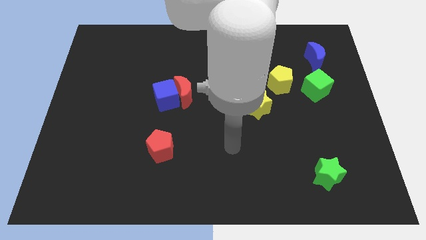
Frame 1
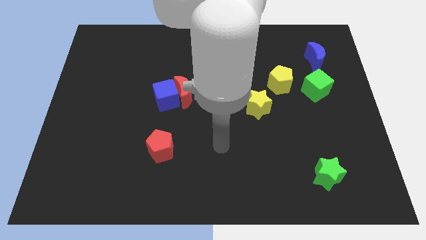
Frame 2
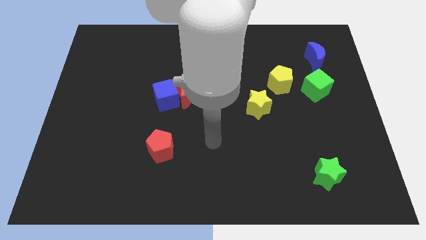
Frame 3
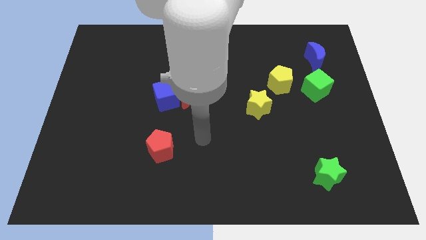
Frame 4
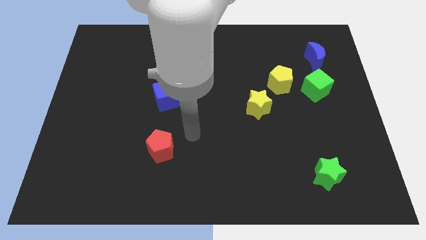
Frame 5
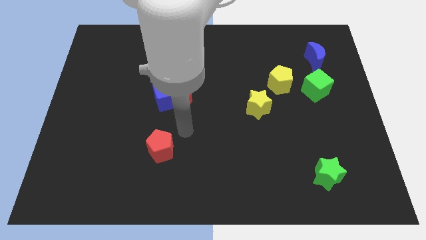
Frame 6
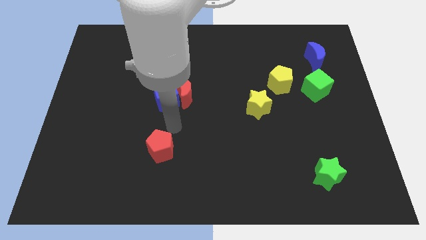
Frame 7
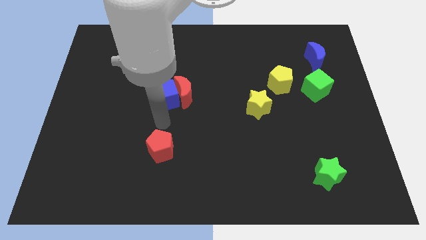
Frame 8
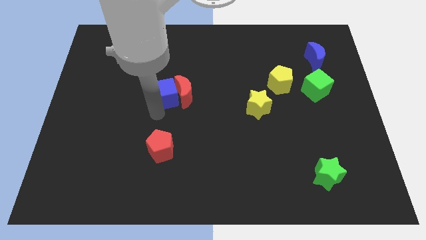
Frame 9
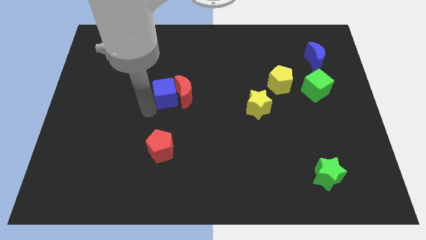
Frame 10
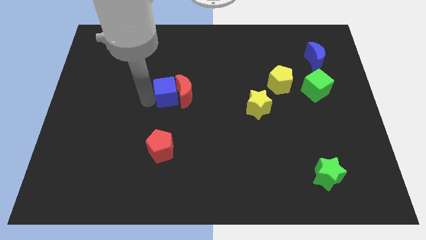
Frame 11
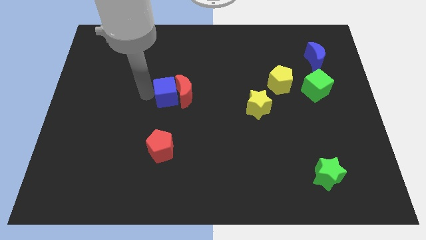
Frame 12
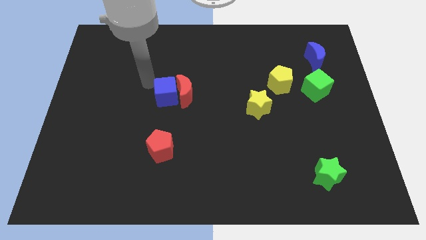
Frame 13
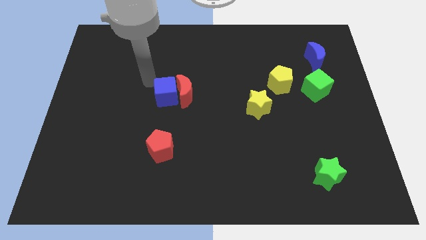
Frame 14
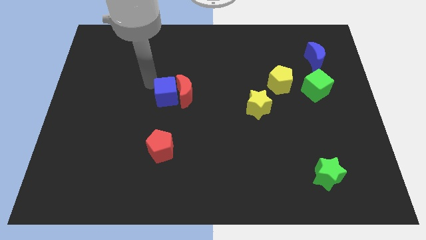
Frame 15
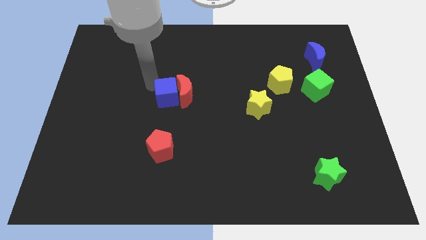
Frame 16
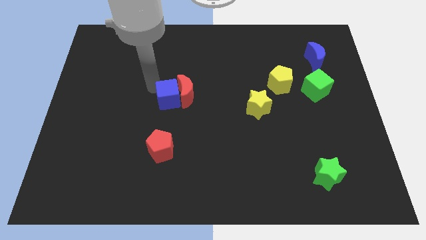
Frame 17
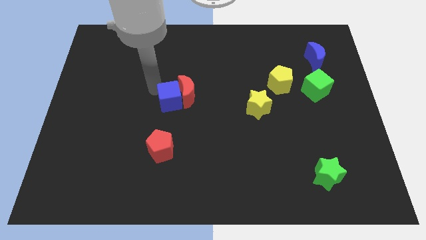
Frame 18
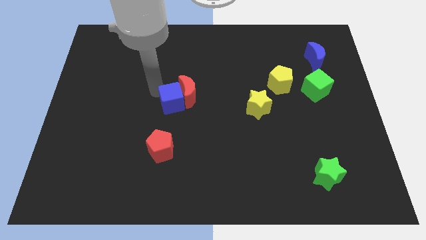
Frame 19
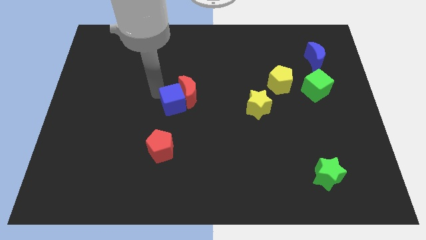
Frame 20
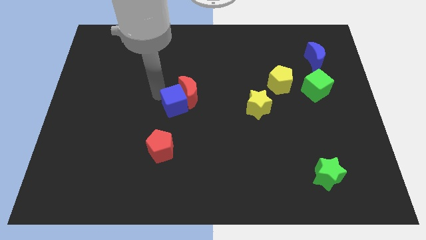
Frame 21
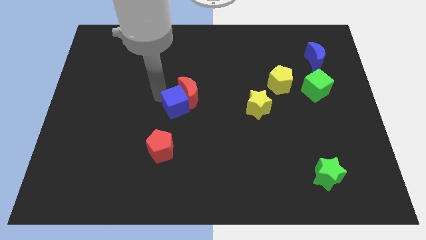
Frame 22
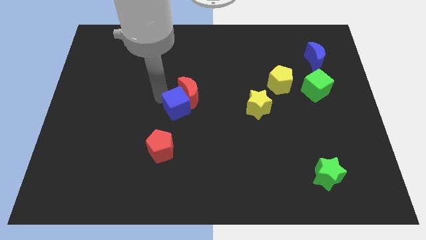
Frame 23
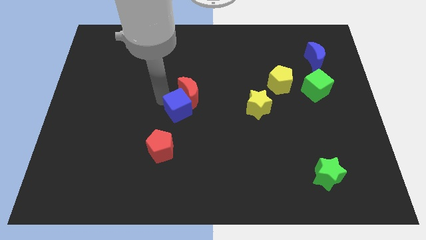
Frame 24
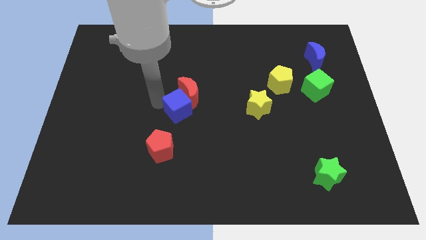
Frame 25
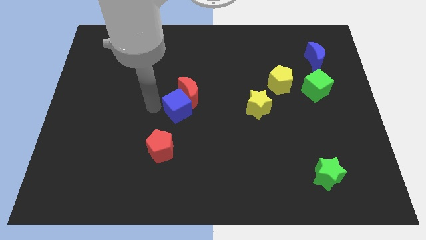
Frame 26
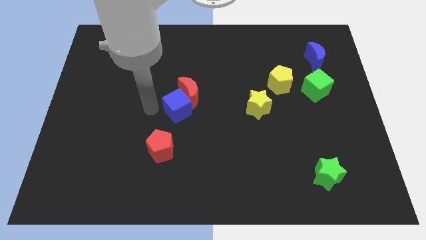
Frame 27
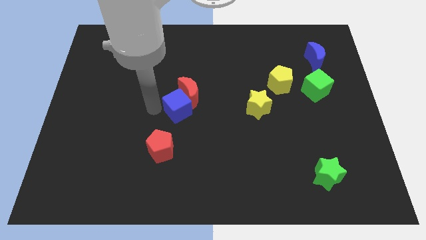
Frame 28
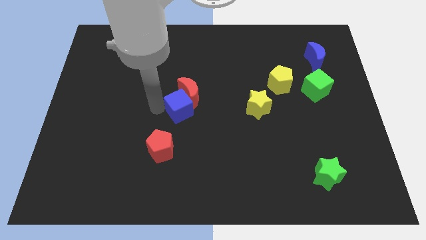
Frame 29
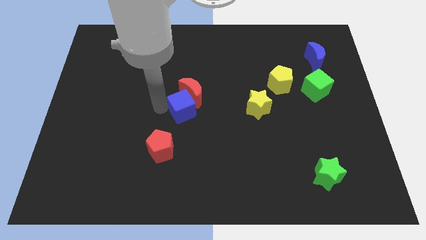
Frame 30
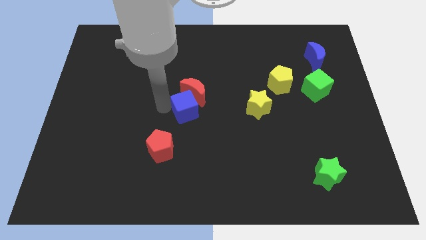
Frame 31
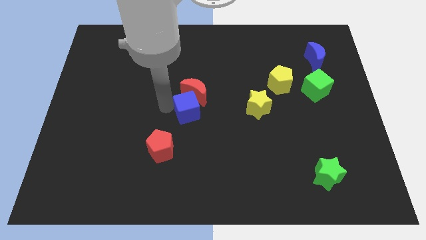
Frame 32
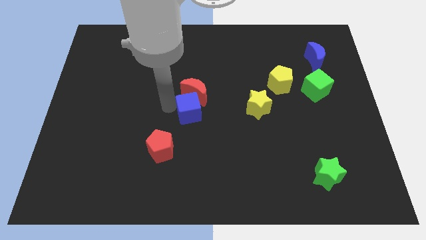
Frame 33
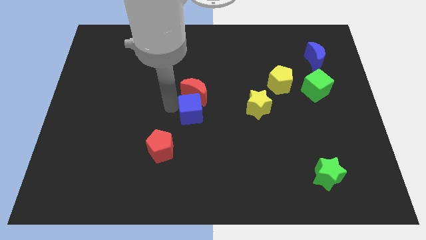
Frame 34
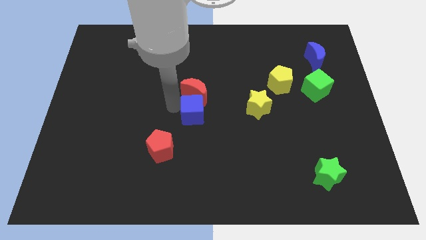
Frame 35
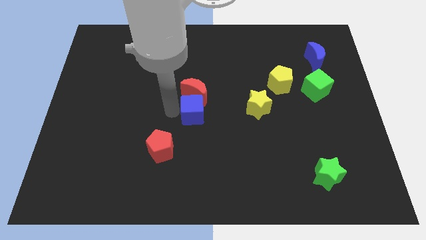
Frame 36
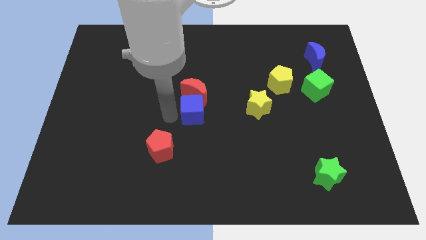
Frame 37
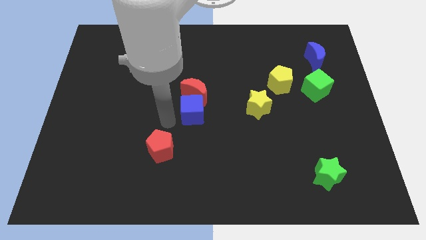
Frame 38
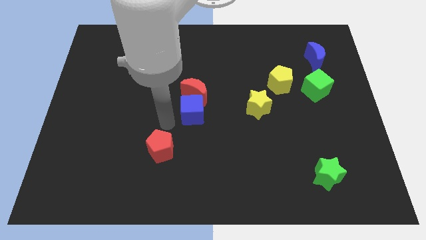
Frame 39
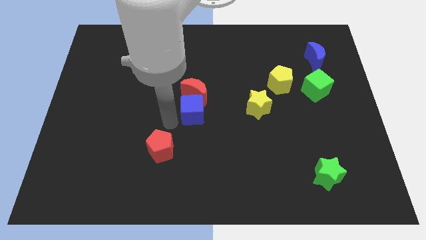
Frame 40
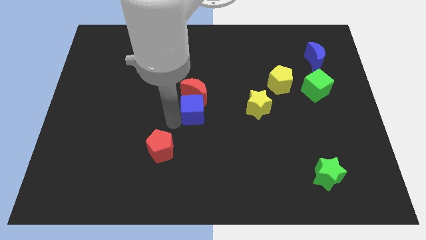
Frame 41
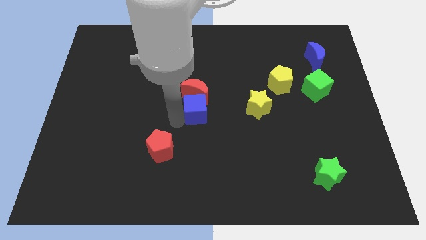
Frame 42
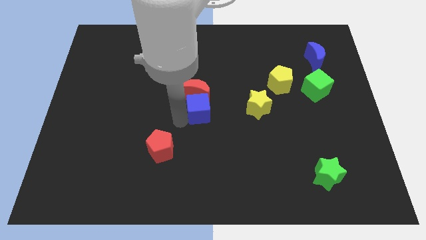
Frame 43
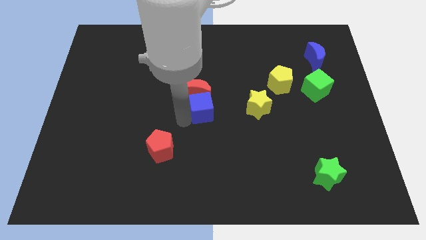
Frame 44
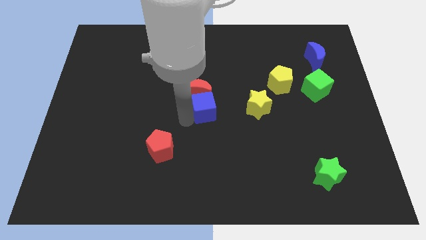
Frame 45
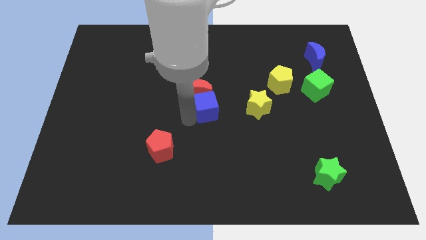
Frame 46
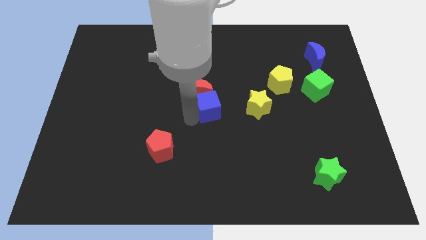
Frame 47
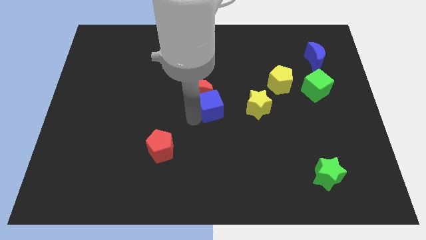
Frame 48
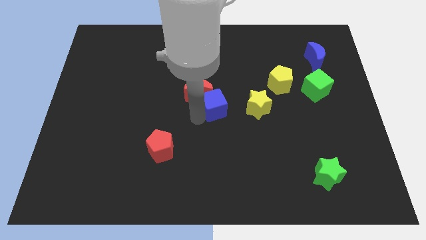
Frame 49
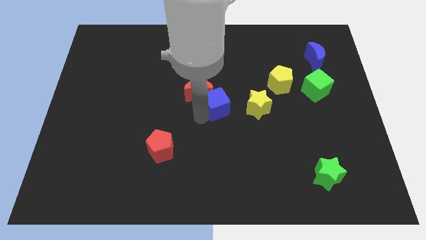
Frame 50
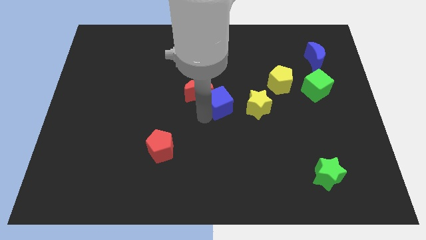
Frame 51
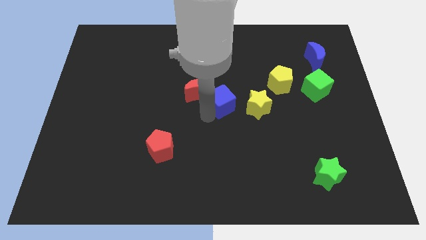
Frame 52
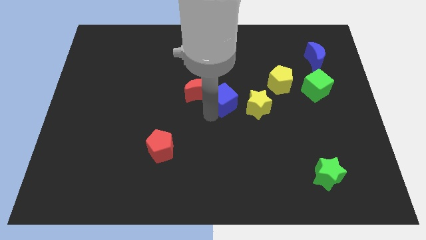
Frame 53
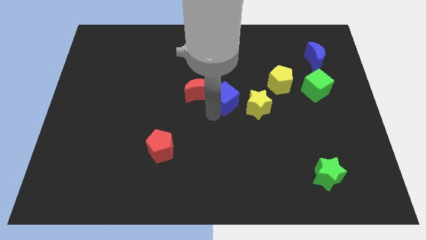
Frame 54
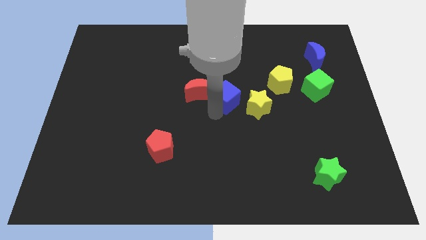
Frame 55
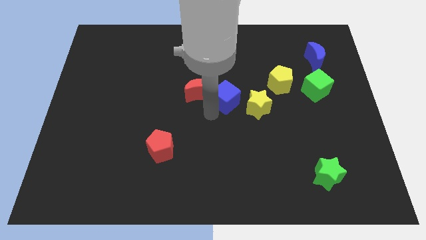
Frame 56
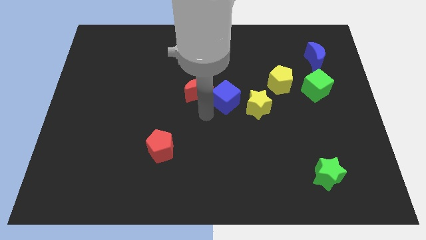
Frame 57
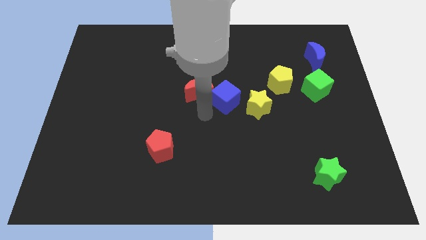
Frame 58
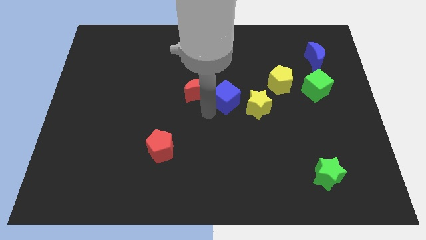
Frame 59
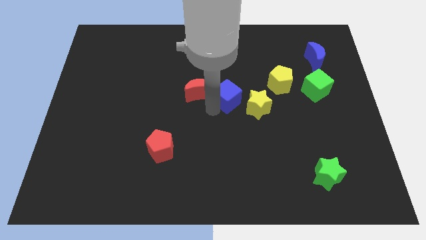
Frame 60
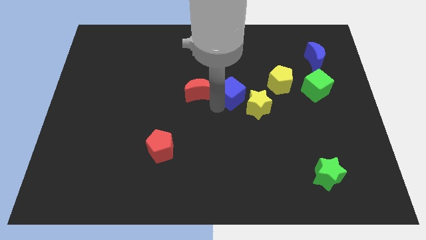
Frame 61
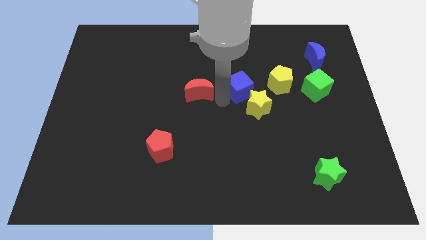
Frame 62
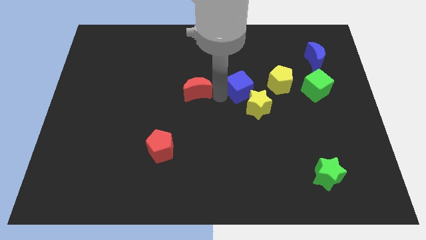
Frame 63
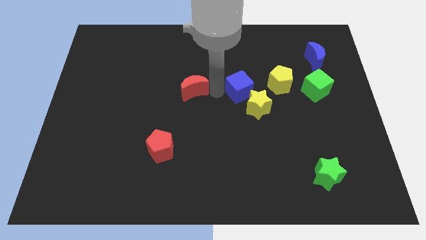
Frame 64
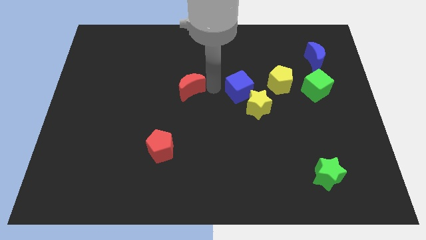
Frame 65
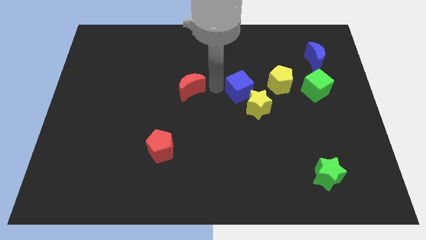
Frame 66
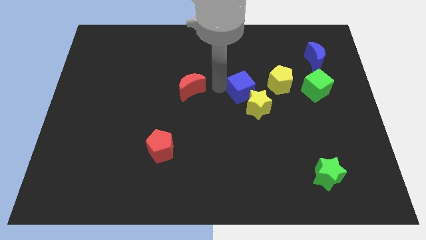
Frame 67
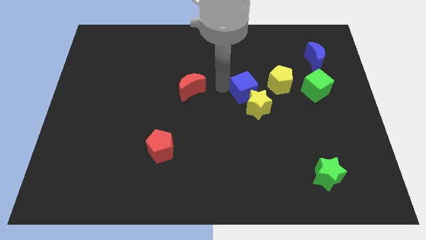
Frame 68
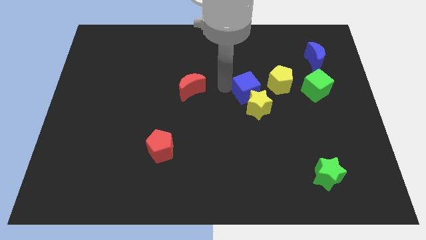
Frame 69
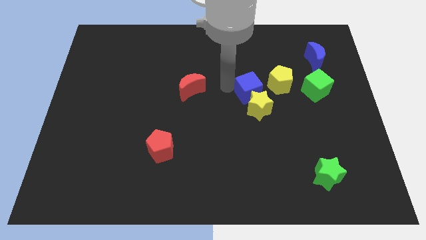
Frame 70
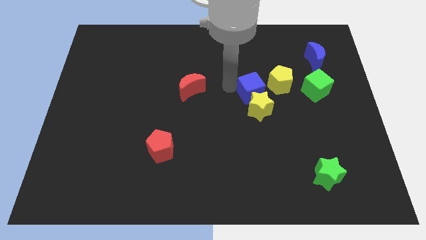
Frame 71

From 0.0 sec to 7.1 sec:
move the blue cube right

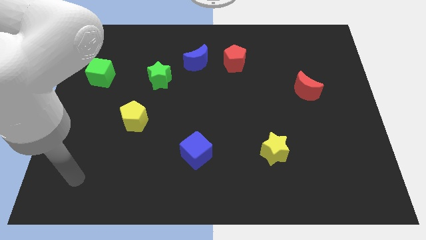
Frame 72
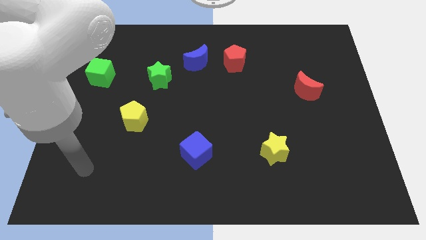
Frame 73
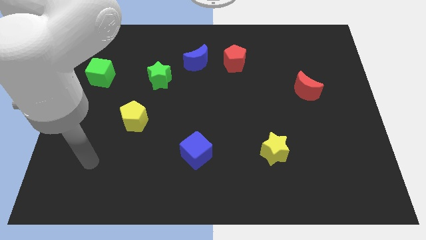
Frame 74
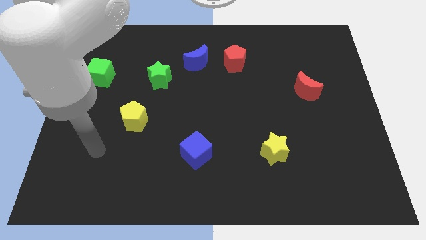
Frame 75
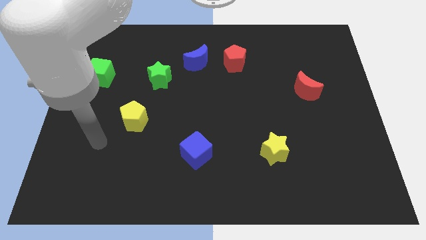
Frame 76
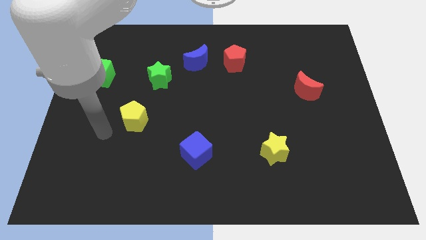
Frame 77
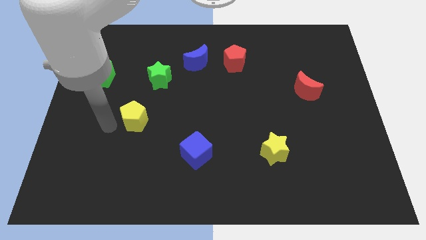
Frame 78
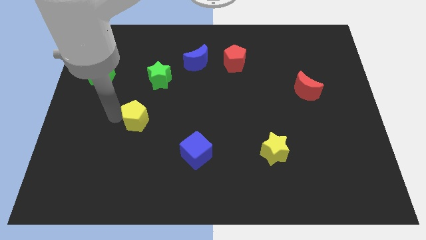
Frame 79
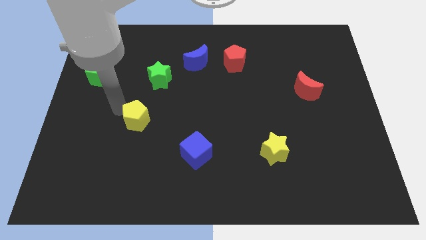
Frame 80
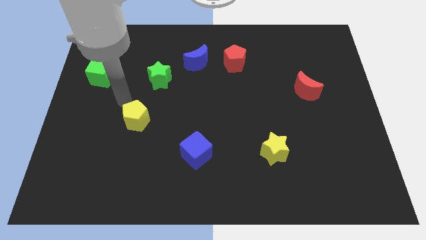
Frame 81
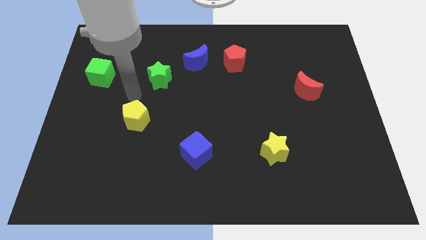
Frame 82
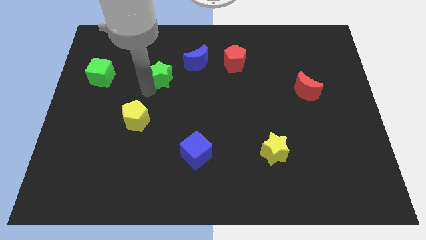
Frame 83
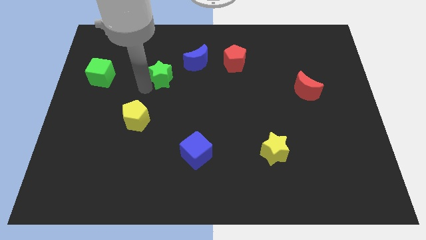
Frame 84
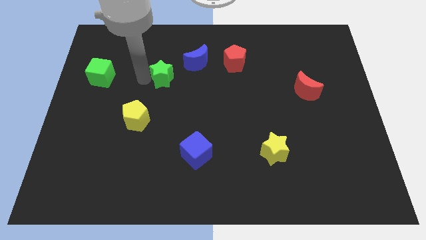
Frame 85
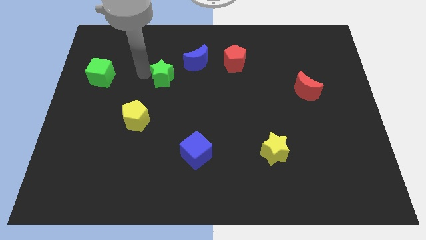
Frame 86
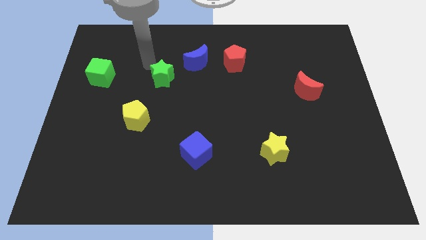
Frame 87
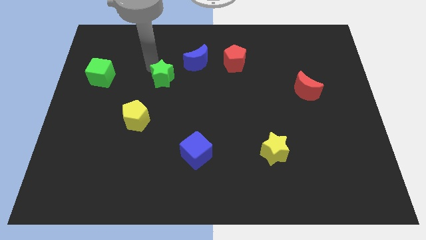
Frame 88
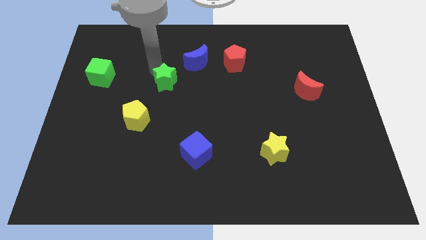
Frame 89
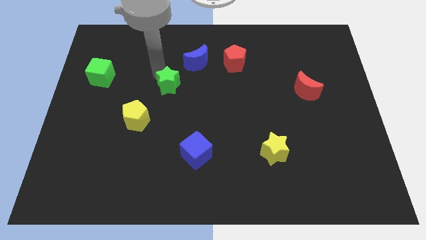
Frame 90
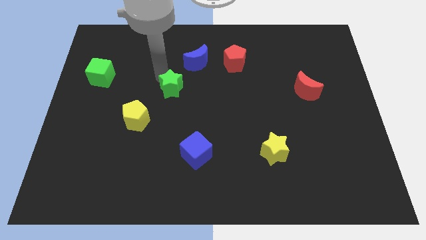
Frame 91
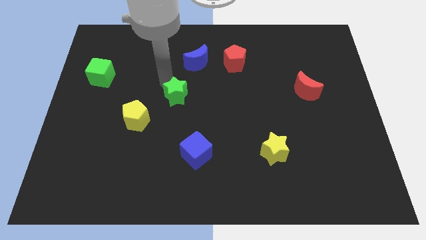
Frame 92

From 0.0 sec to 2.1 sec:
slightly move the green star down and to the right
